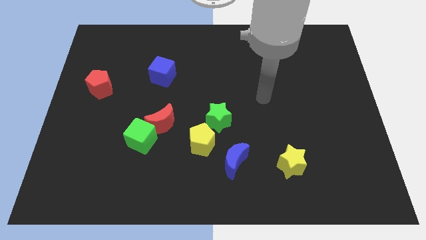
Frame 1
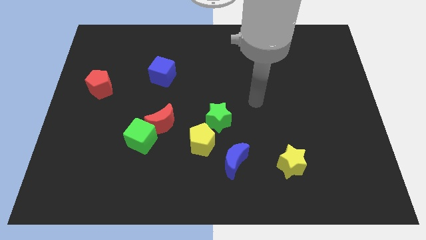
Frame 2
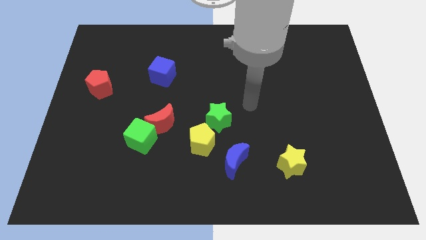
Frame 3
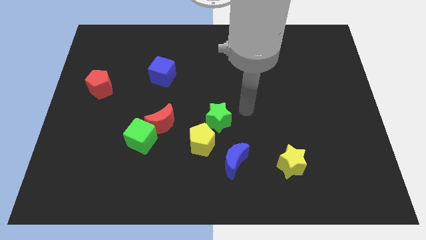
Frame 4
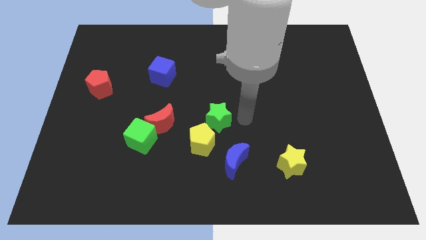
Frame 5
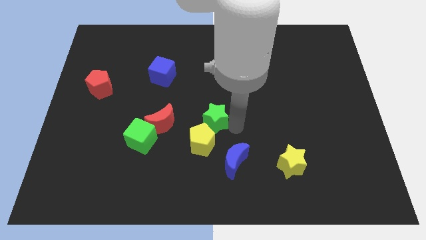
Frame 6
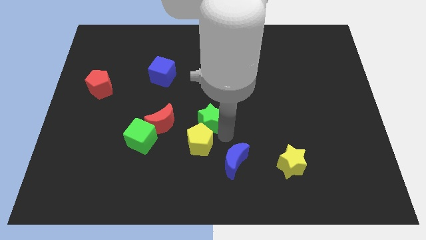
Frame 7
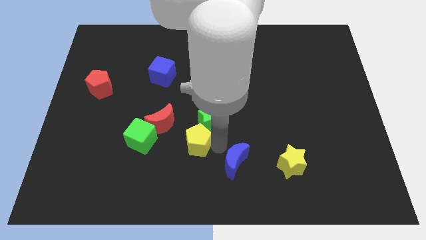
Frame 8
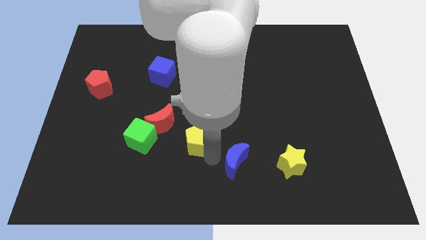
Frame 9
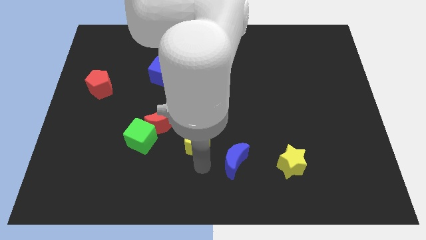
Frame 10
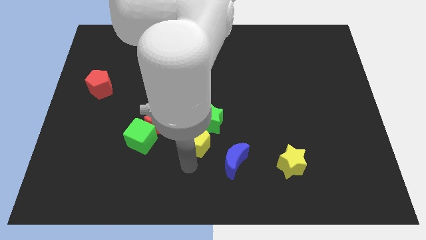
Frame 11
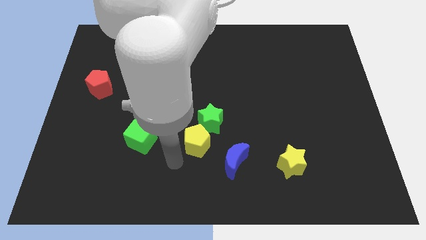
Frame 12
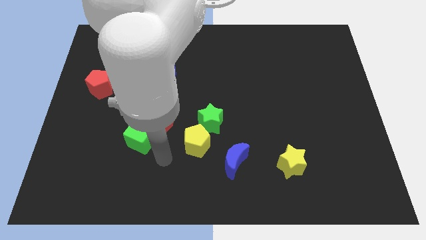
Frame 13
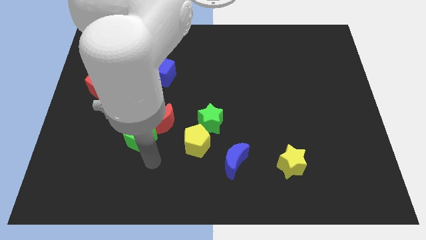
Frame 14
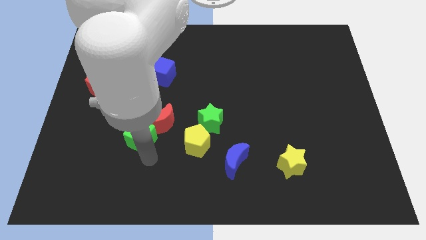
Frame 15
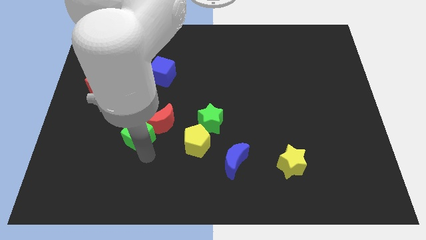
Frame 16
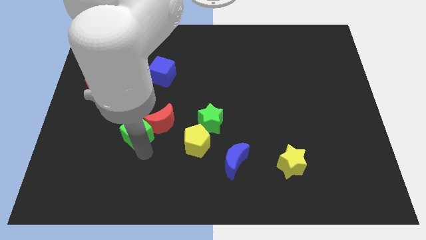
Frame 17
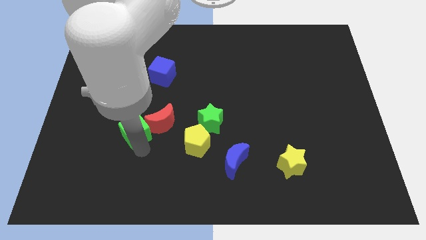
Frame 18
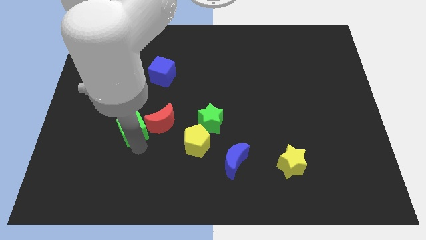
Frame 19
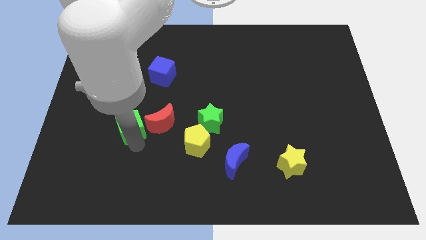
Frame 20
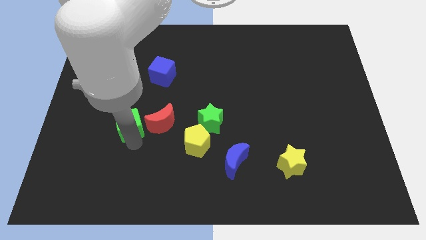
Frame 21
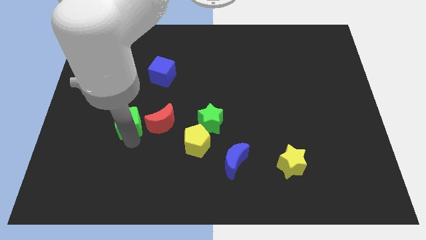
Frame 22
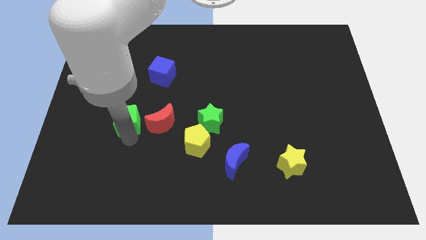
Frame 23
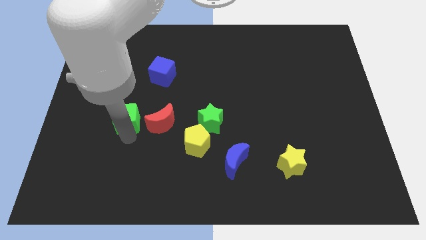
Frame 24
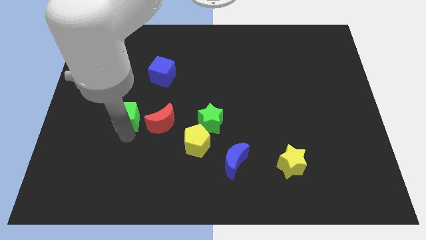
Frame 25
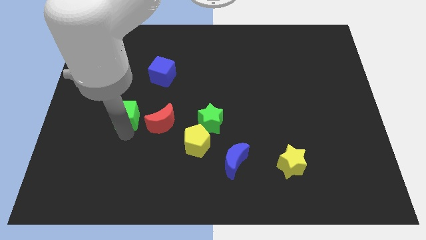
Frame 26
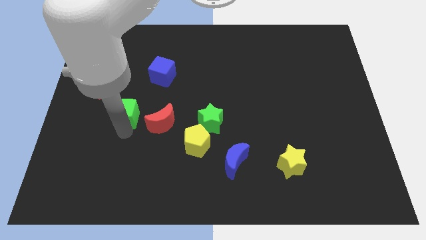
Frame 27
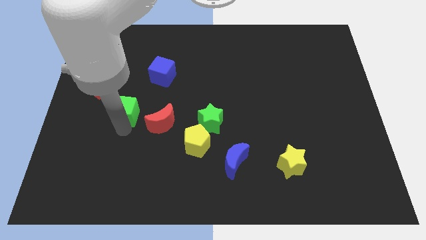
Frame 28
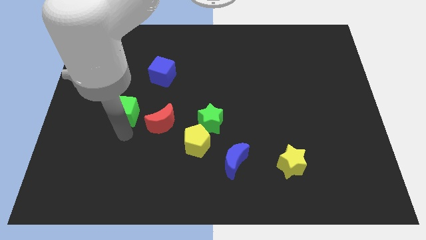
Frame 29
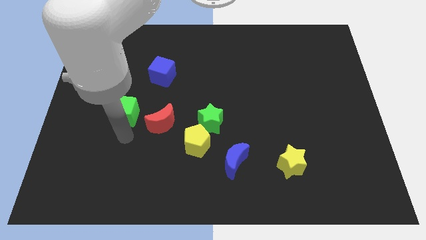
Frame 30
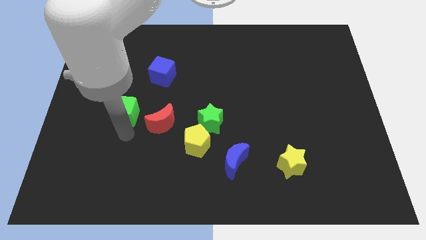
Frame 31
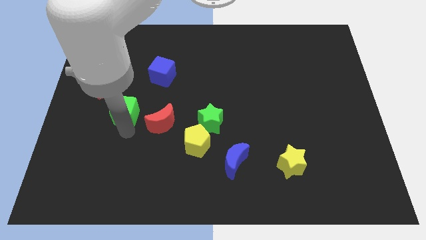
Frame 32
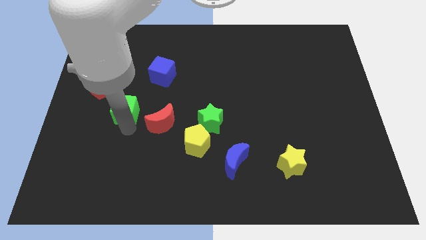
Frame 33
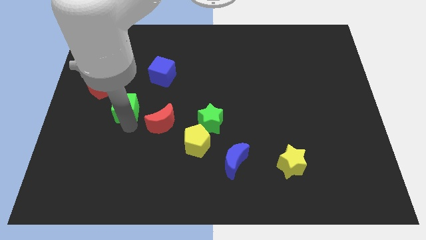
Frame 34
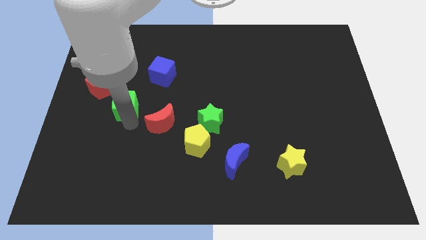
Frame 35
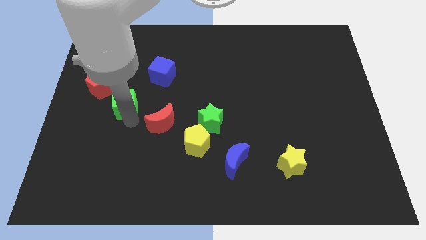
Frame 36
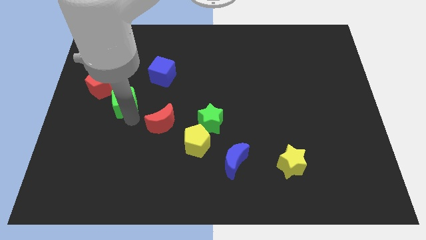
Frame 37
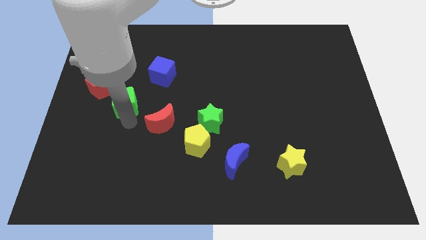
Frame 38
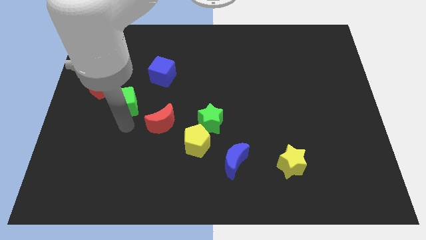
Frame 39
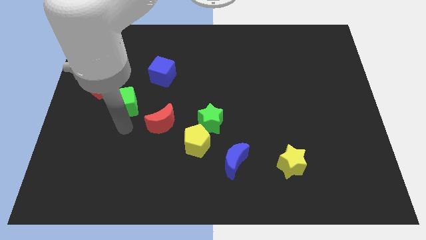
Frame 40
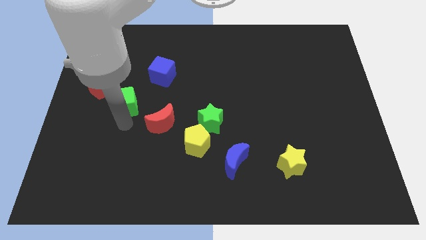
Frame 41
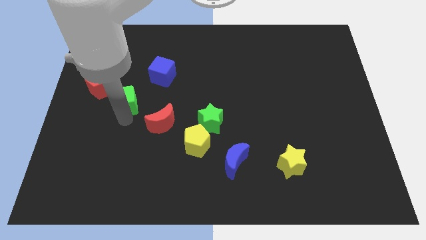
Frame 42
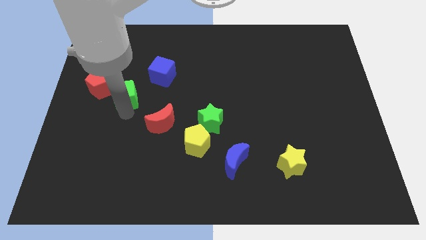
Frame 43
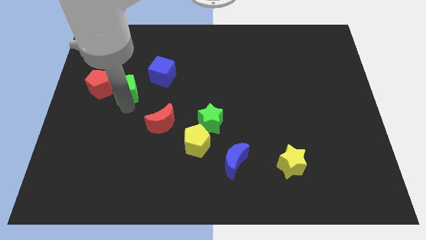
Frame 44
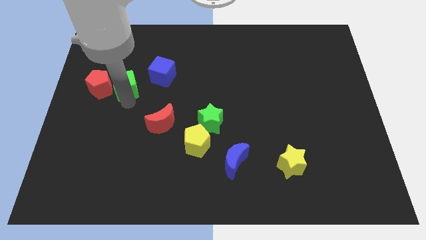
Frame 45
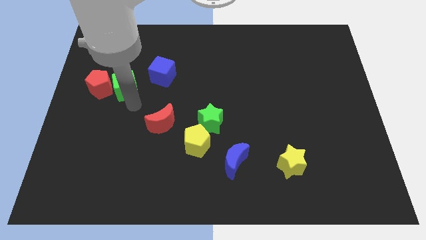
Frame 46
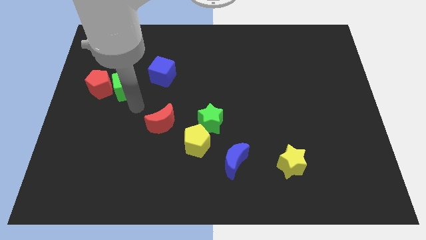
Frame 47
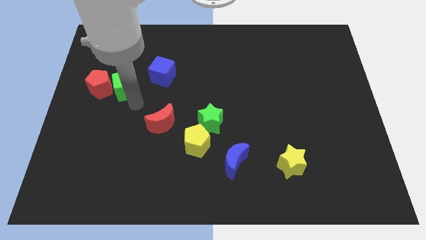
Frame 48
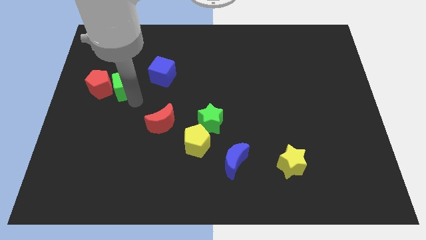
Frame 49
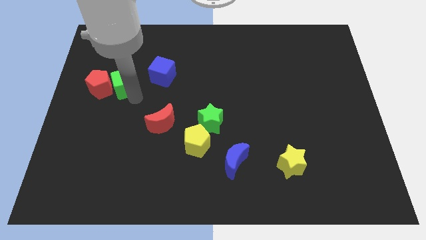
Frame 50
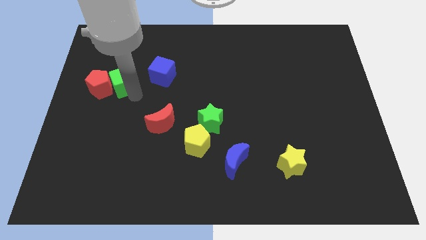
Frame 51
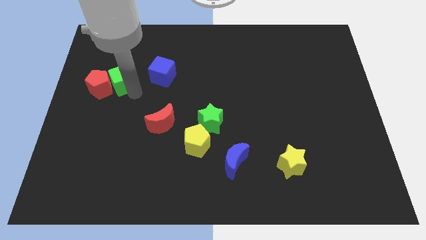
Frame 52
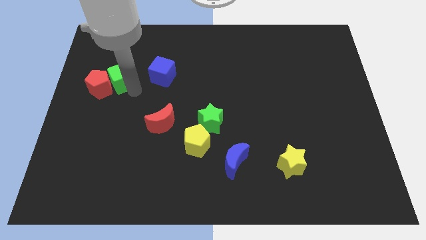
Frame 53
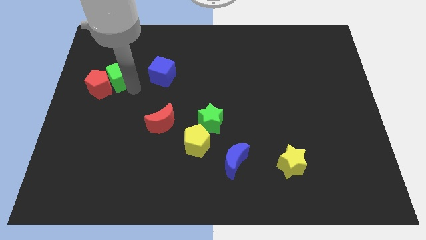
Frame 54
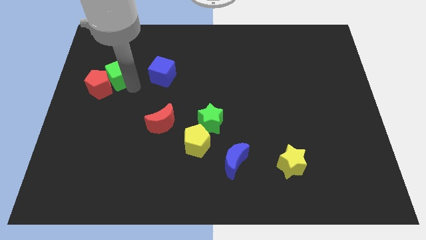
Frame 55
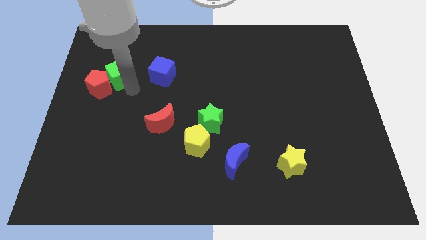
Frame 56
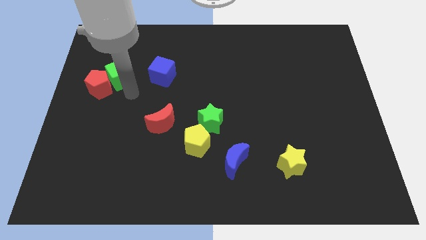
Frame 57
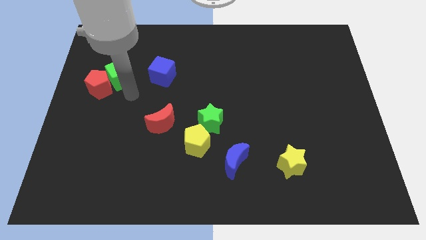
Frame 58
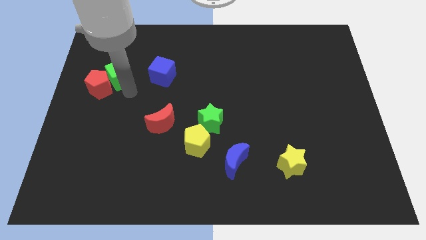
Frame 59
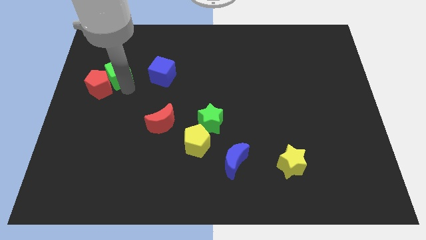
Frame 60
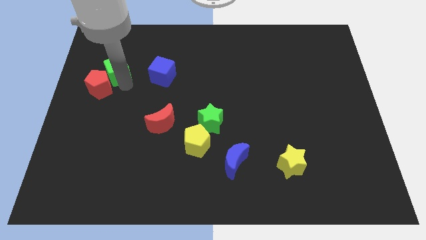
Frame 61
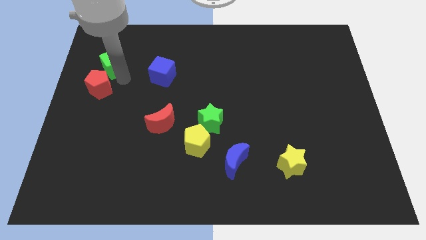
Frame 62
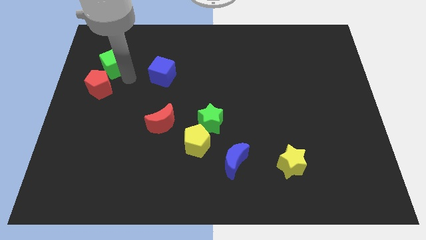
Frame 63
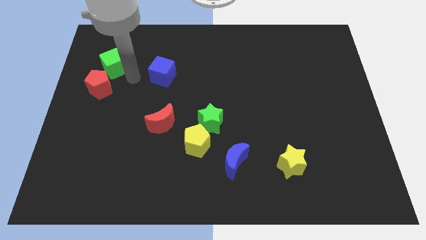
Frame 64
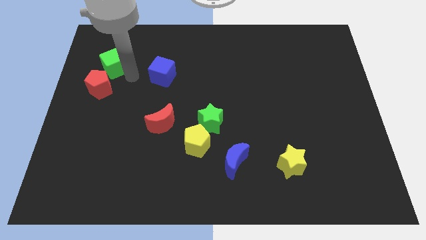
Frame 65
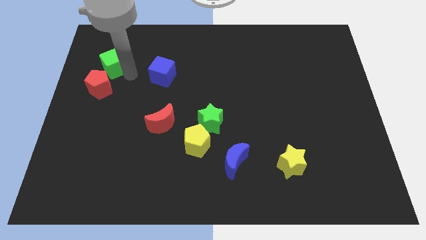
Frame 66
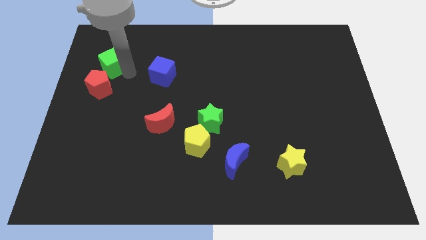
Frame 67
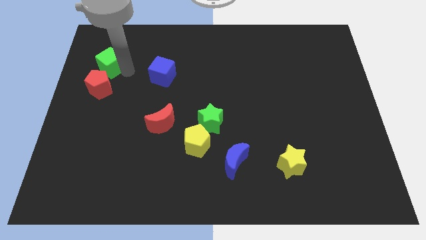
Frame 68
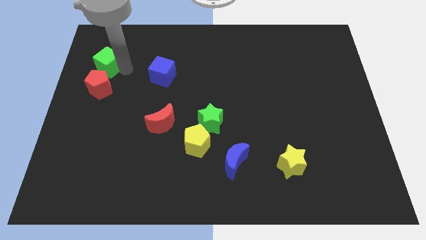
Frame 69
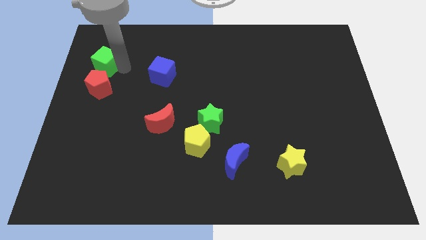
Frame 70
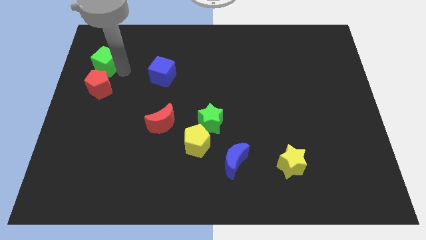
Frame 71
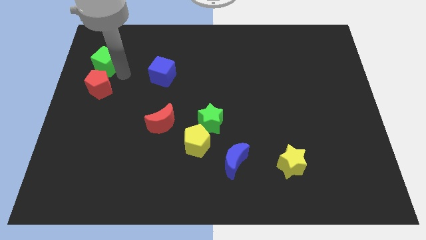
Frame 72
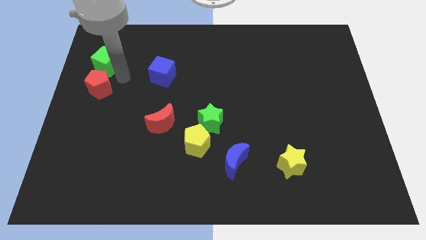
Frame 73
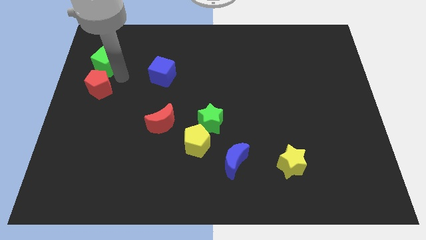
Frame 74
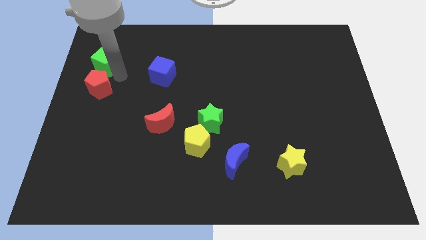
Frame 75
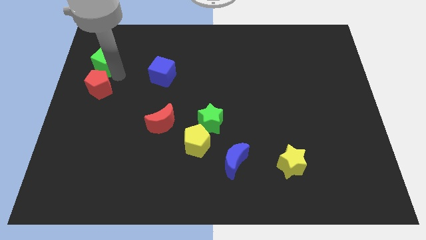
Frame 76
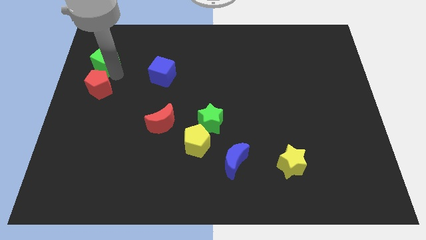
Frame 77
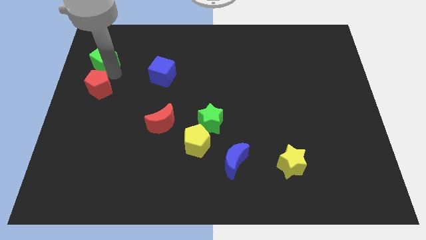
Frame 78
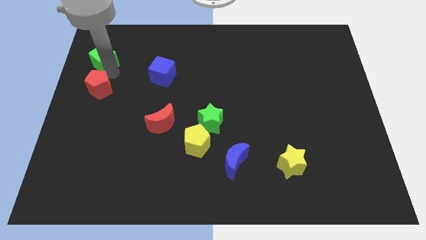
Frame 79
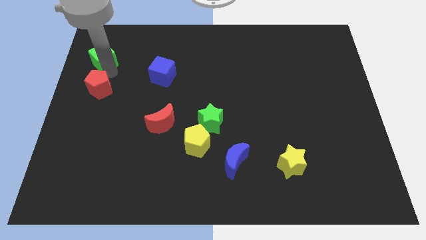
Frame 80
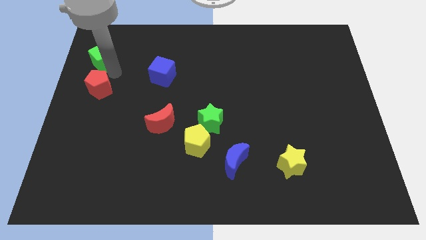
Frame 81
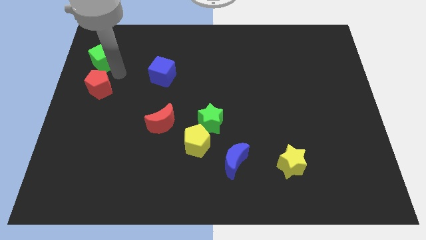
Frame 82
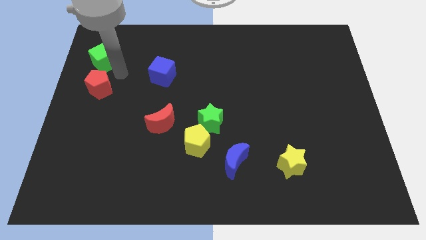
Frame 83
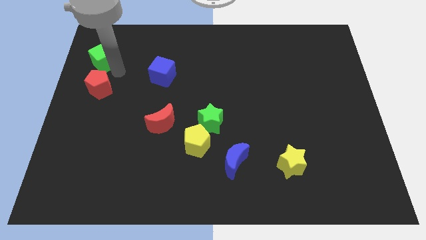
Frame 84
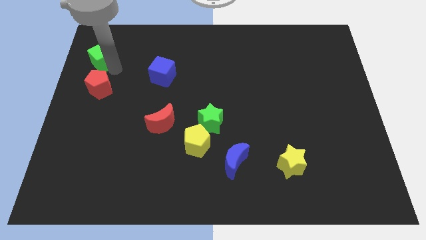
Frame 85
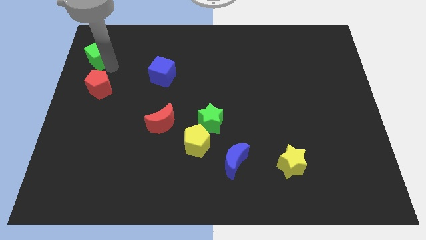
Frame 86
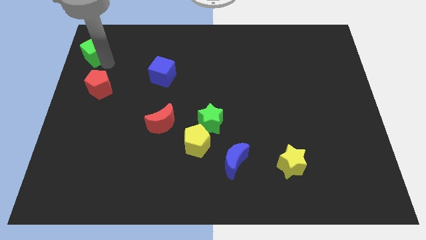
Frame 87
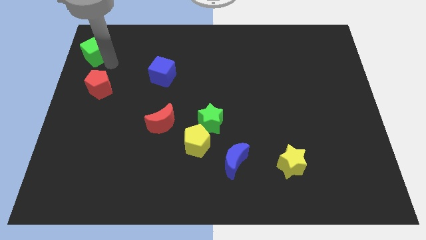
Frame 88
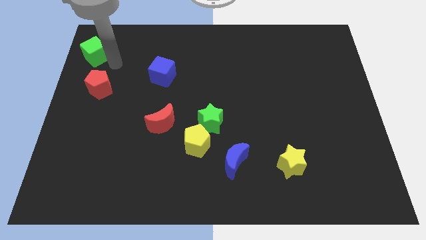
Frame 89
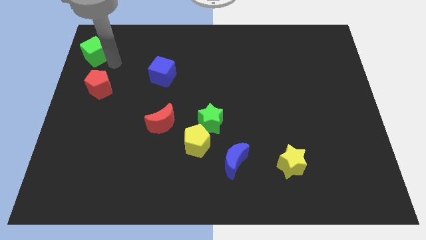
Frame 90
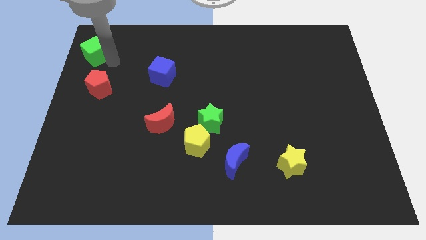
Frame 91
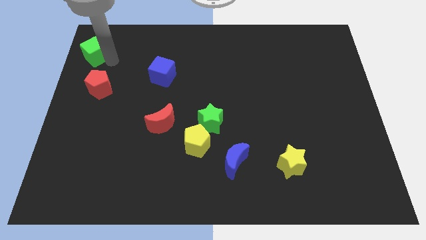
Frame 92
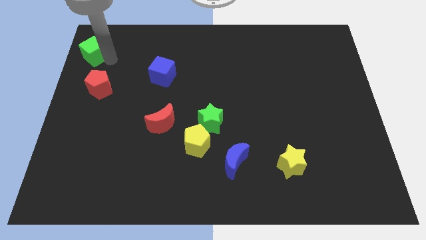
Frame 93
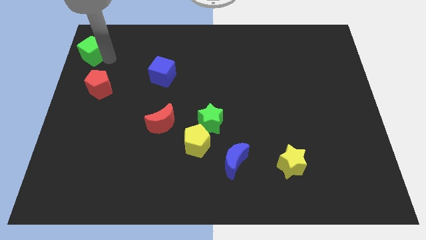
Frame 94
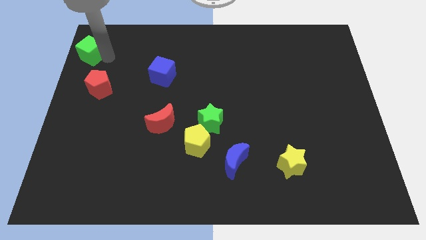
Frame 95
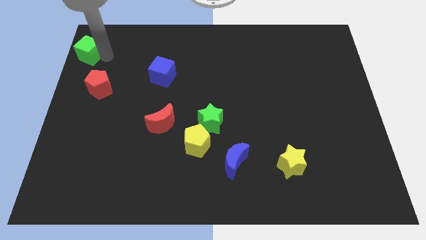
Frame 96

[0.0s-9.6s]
move the green cube to the top left corner
